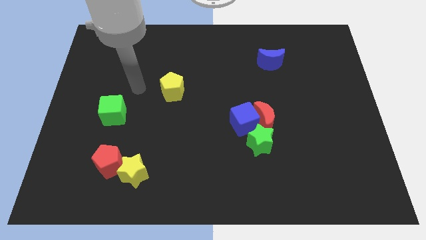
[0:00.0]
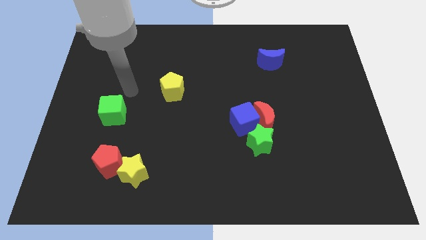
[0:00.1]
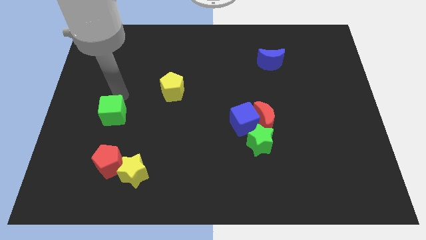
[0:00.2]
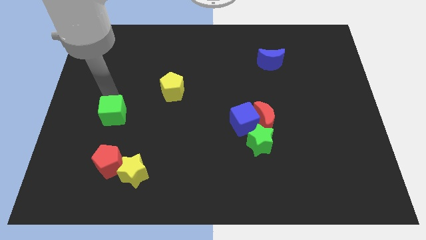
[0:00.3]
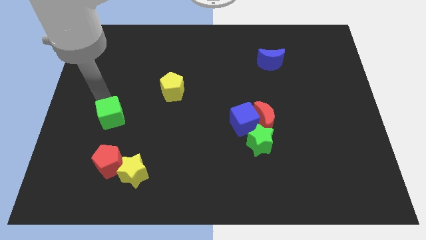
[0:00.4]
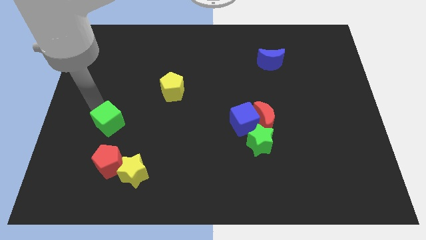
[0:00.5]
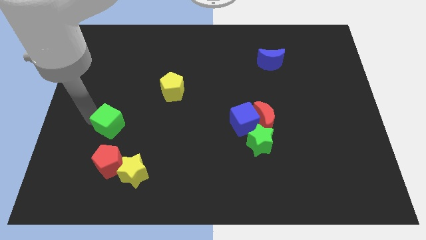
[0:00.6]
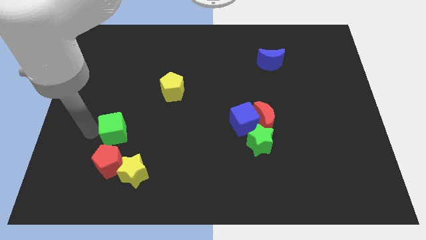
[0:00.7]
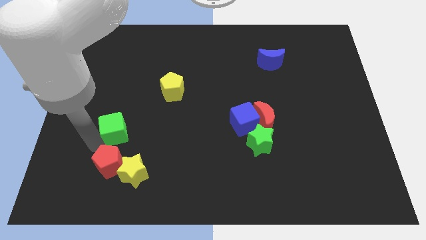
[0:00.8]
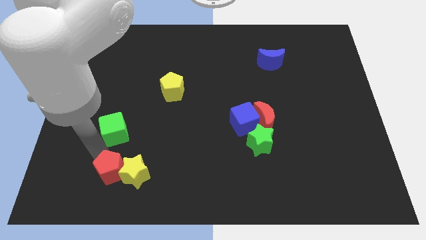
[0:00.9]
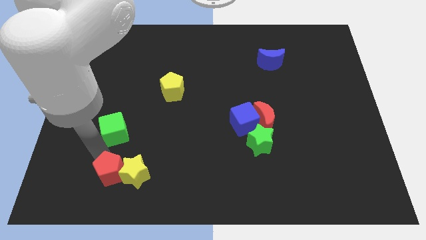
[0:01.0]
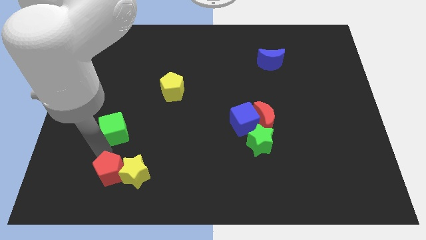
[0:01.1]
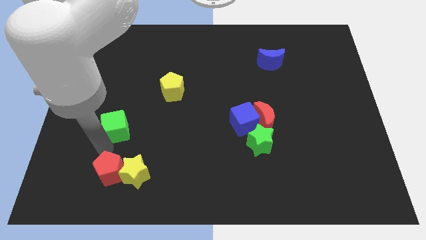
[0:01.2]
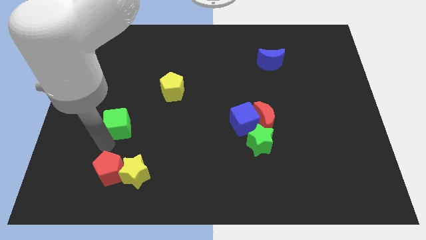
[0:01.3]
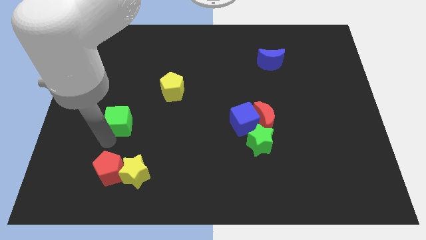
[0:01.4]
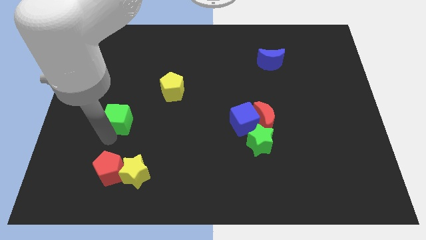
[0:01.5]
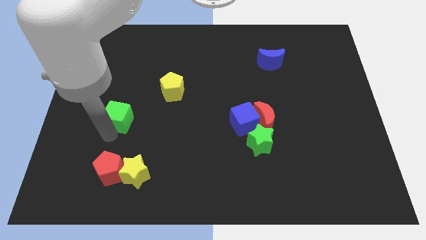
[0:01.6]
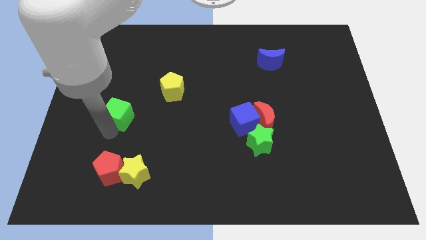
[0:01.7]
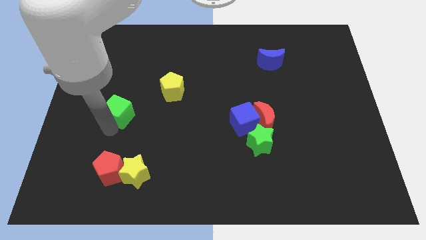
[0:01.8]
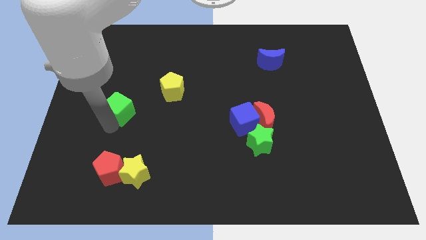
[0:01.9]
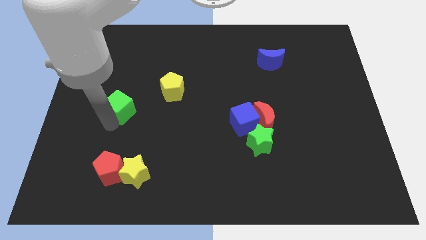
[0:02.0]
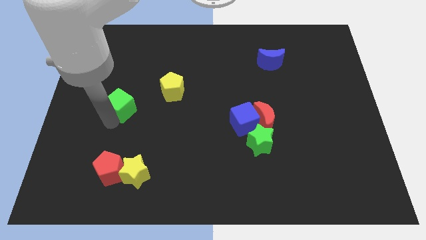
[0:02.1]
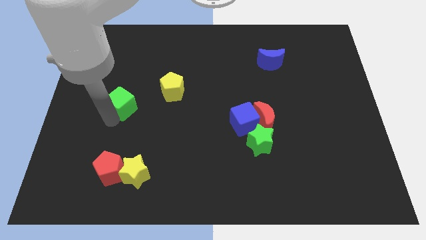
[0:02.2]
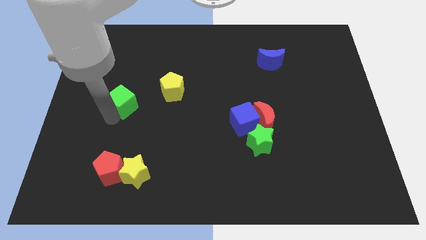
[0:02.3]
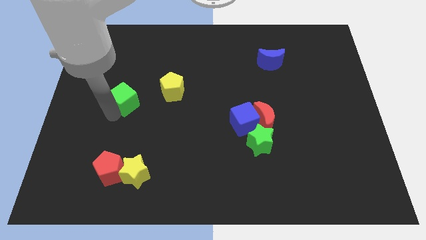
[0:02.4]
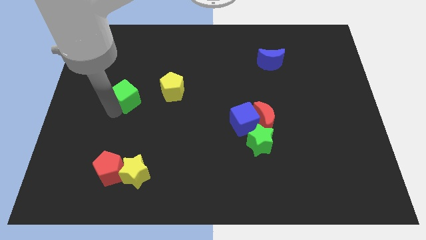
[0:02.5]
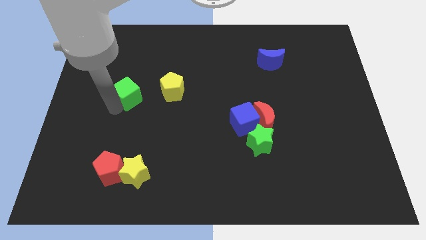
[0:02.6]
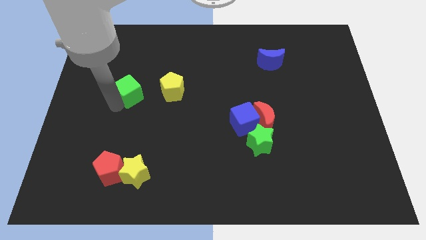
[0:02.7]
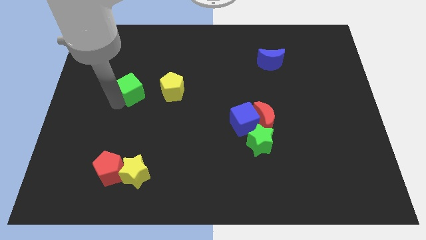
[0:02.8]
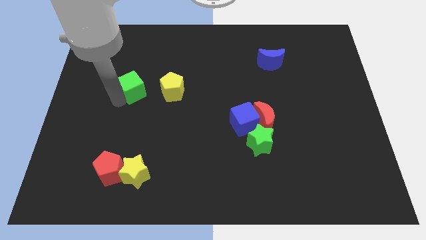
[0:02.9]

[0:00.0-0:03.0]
slightly push the green cube upwards and then right

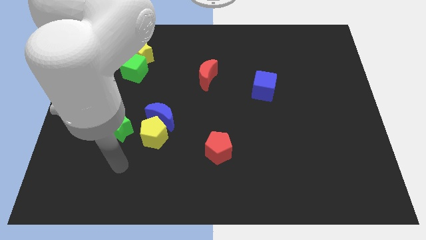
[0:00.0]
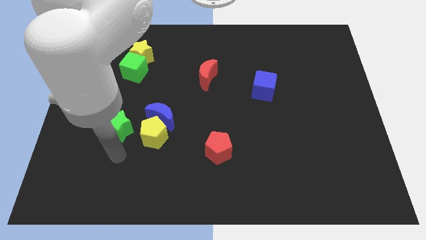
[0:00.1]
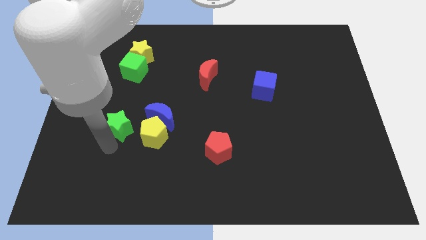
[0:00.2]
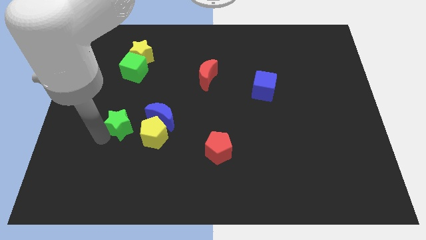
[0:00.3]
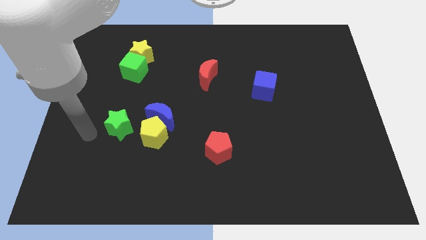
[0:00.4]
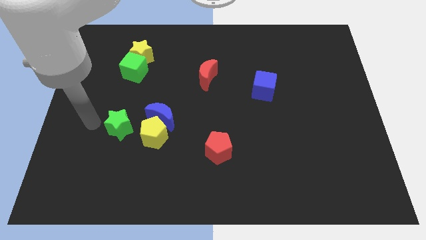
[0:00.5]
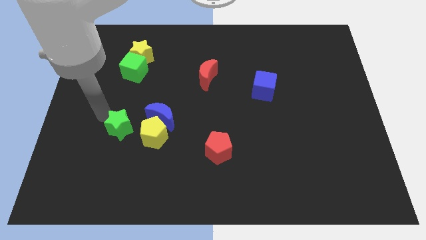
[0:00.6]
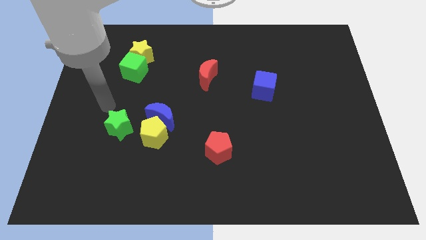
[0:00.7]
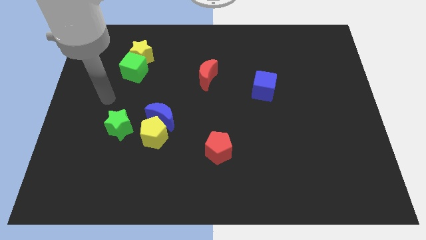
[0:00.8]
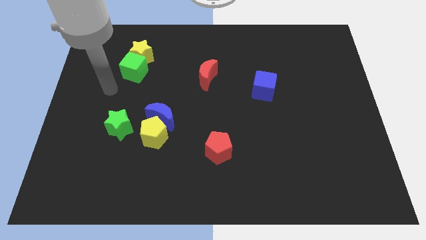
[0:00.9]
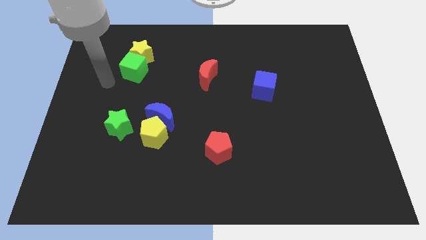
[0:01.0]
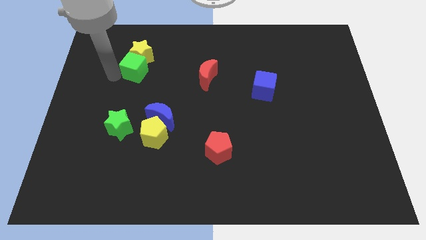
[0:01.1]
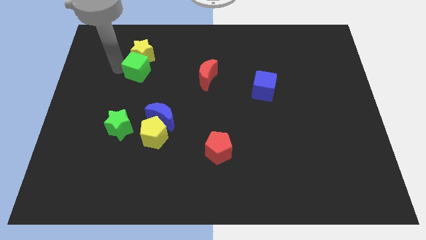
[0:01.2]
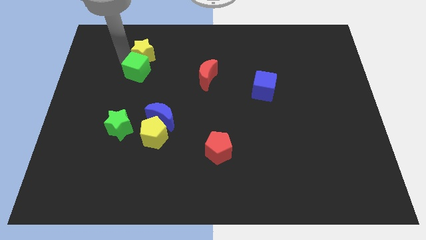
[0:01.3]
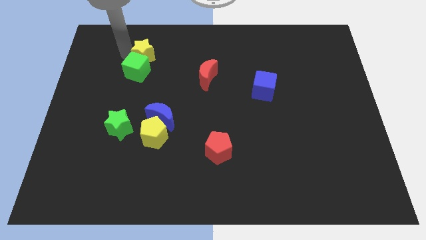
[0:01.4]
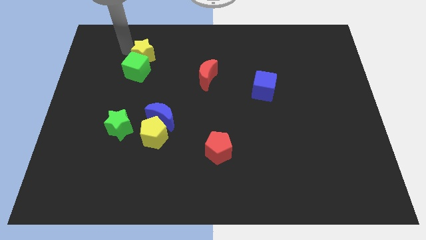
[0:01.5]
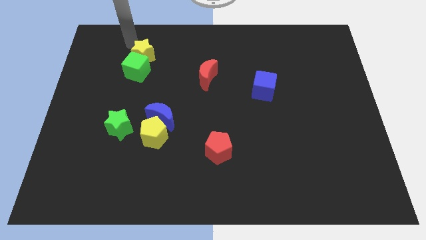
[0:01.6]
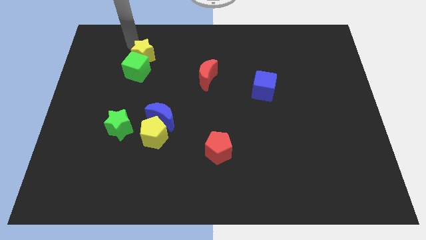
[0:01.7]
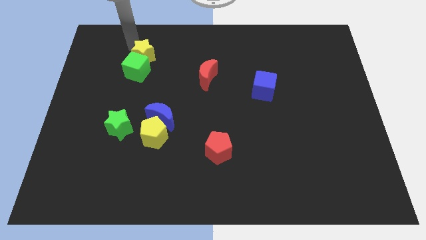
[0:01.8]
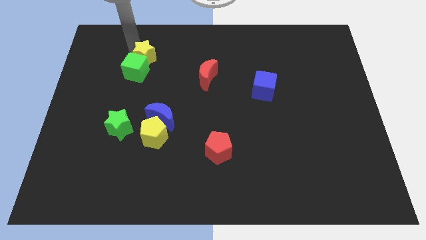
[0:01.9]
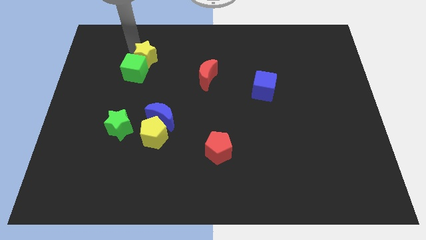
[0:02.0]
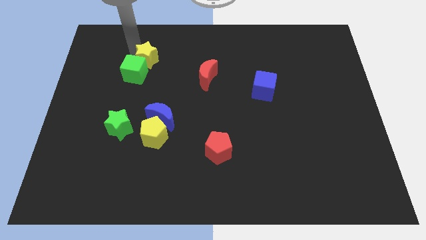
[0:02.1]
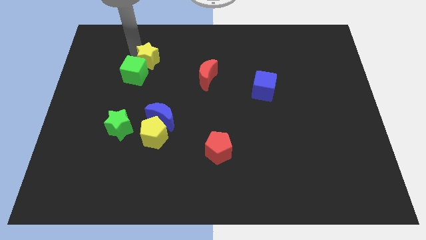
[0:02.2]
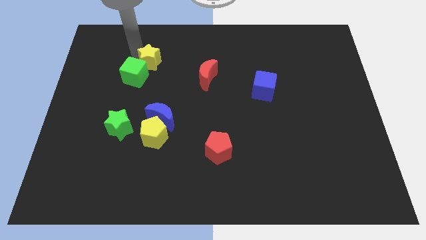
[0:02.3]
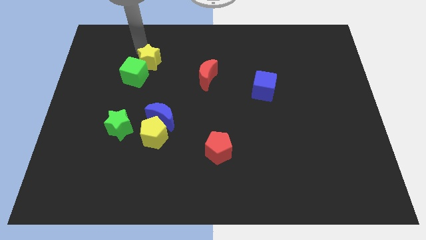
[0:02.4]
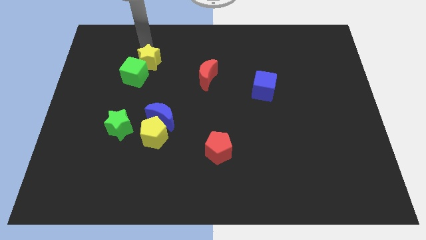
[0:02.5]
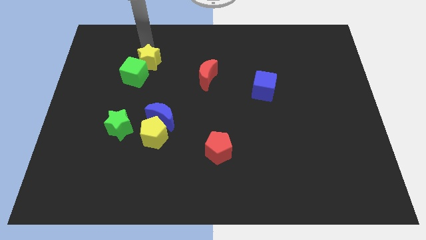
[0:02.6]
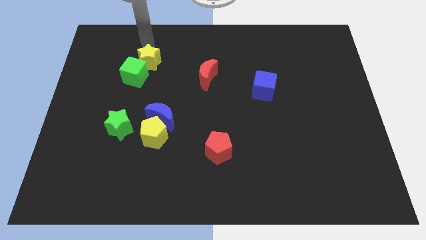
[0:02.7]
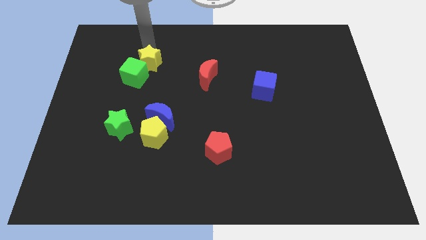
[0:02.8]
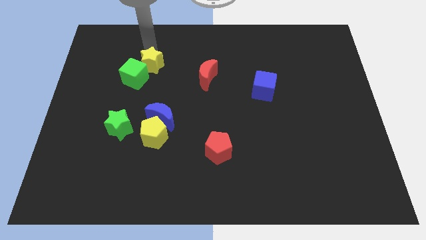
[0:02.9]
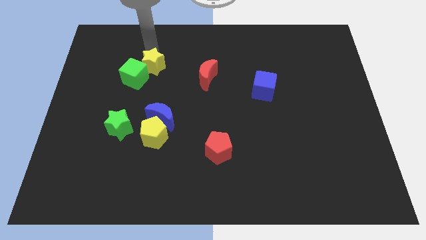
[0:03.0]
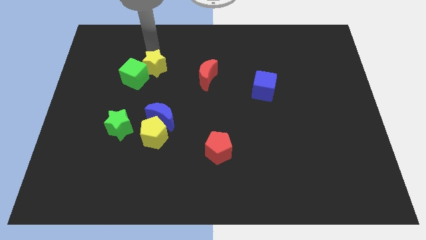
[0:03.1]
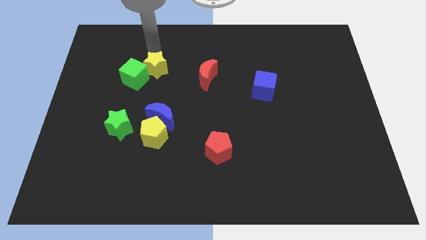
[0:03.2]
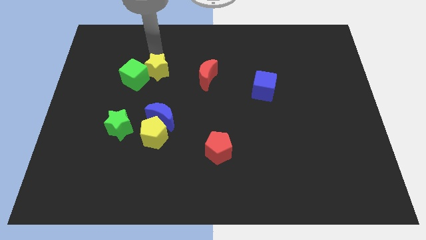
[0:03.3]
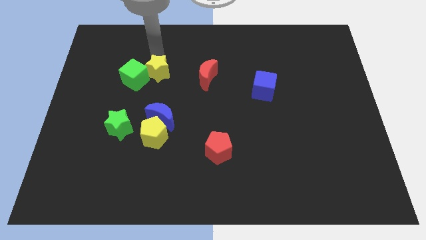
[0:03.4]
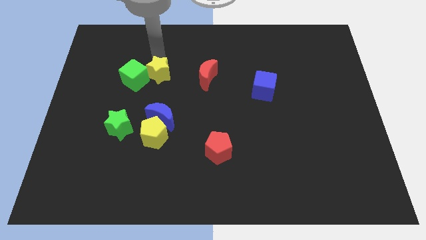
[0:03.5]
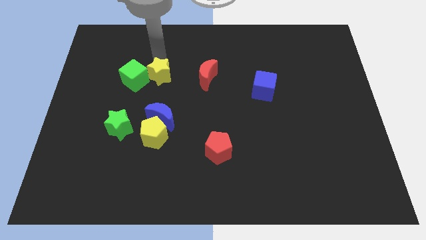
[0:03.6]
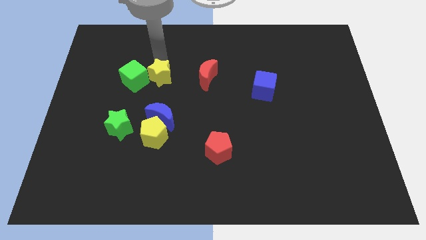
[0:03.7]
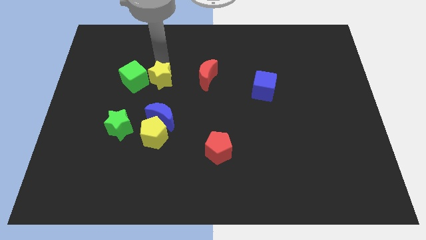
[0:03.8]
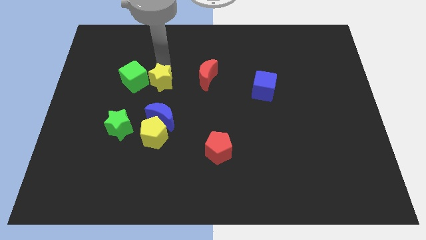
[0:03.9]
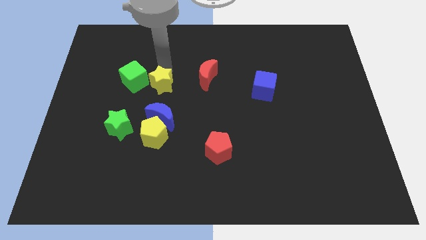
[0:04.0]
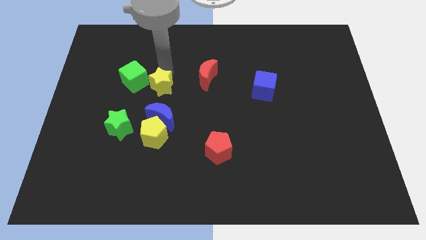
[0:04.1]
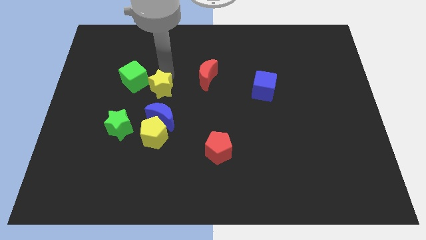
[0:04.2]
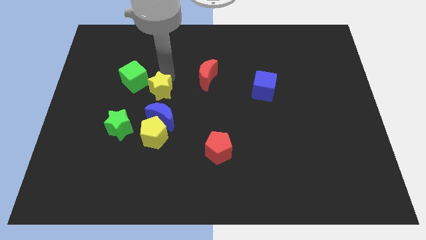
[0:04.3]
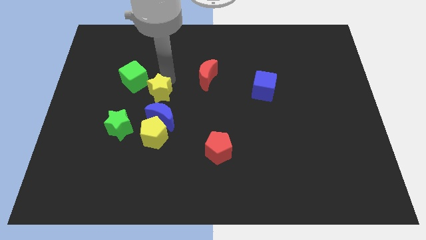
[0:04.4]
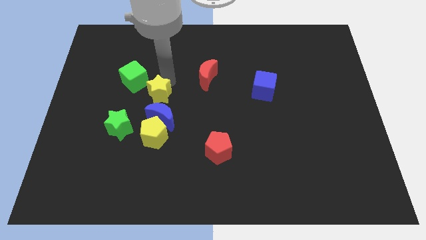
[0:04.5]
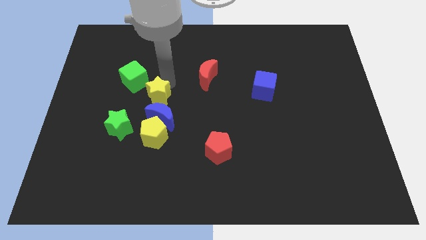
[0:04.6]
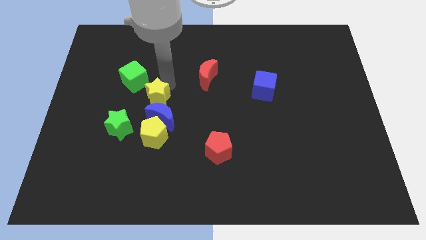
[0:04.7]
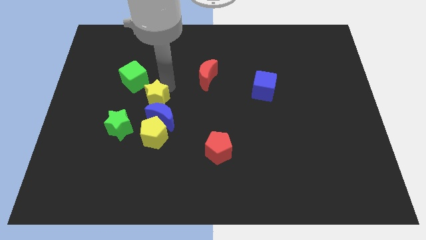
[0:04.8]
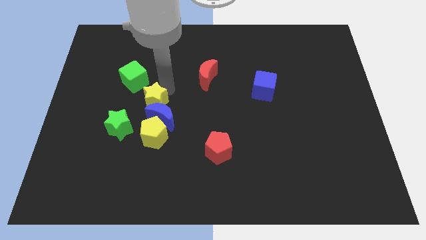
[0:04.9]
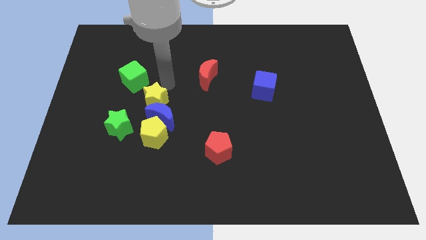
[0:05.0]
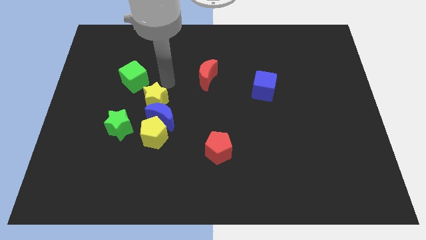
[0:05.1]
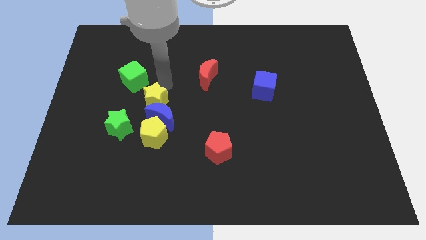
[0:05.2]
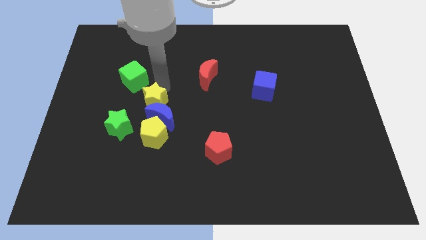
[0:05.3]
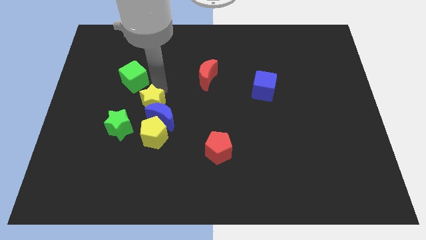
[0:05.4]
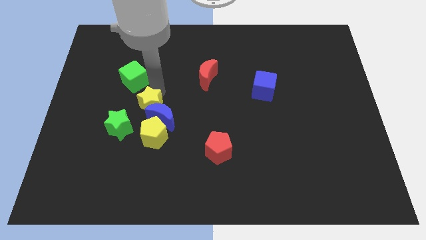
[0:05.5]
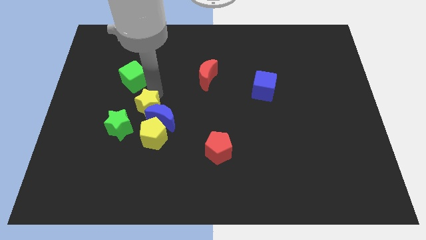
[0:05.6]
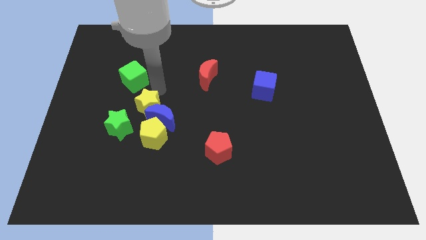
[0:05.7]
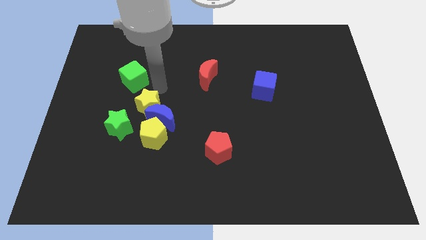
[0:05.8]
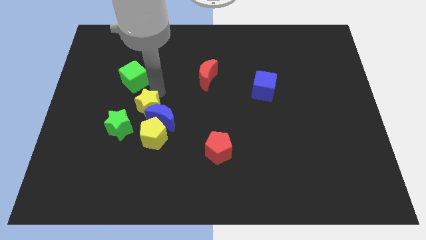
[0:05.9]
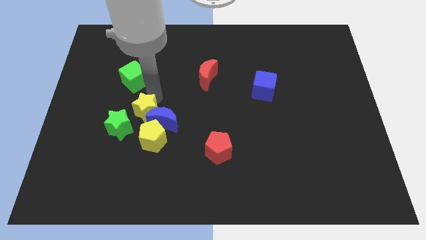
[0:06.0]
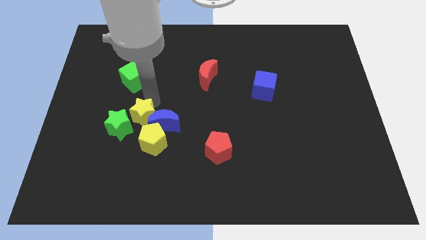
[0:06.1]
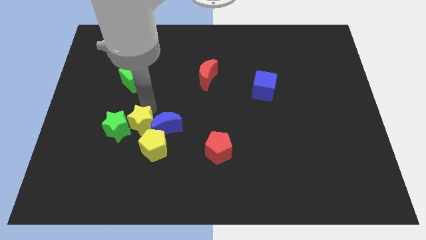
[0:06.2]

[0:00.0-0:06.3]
slide the yellow star down
